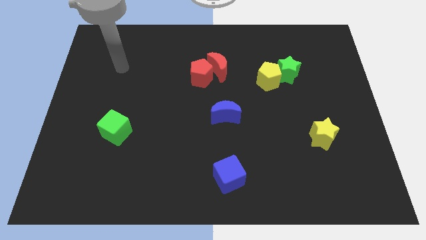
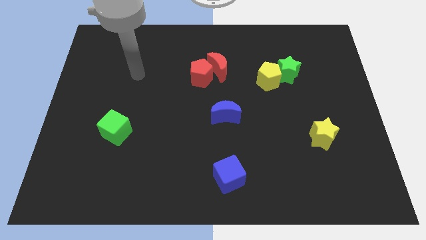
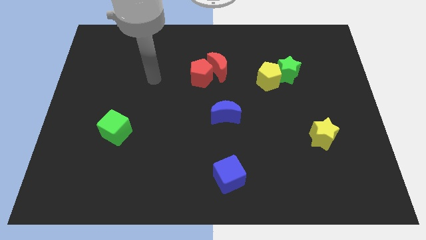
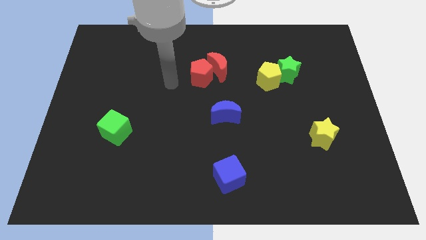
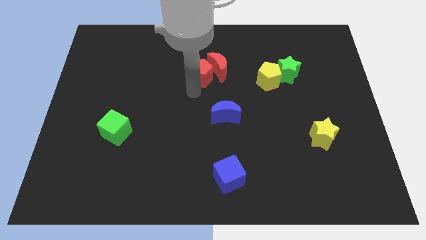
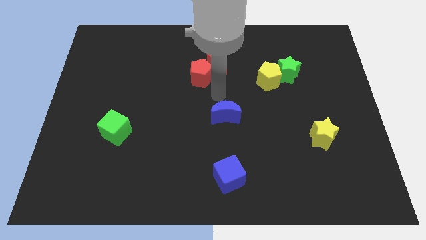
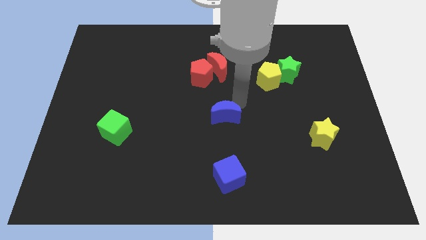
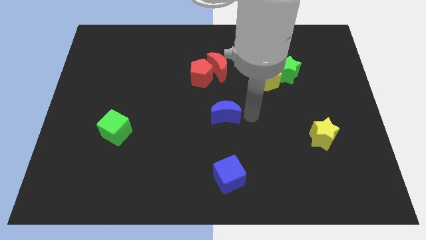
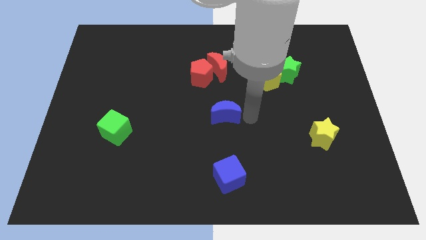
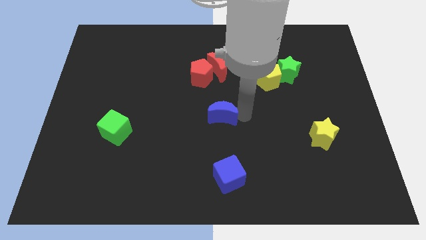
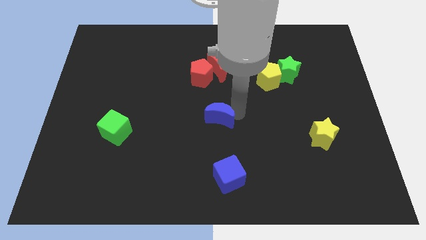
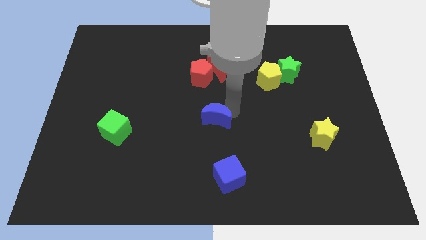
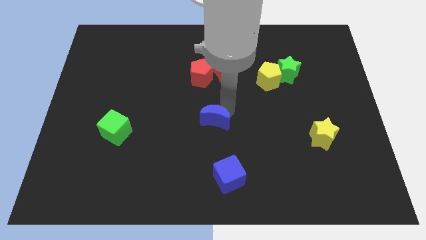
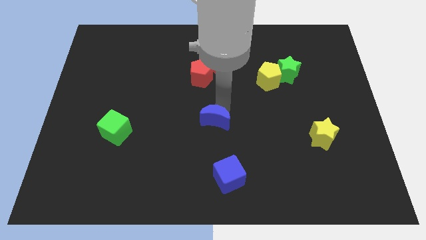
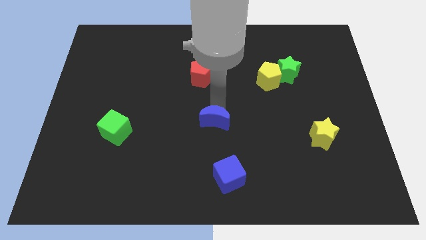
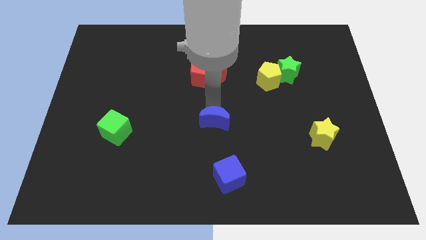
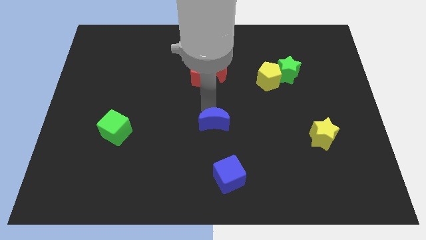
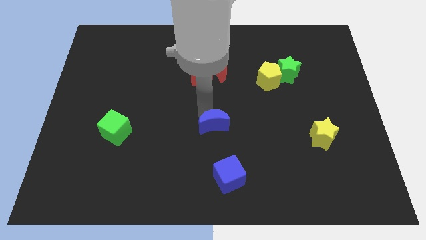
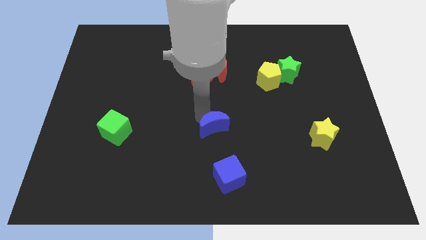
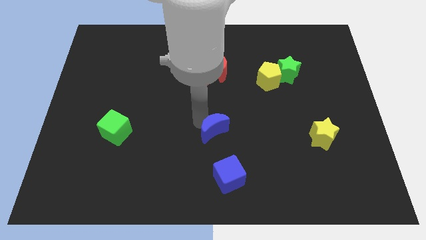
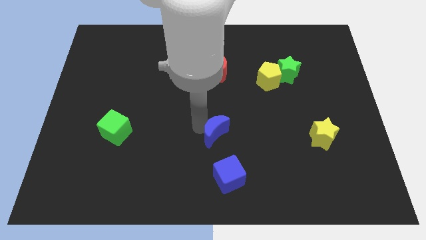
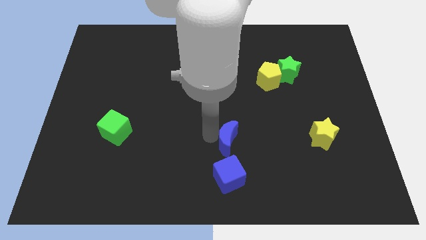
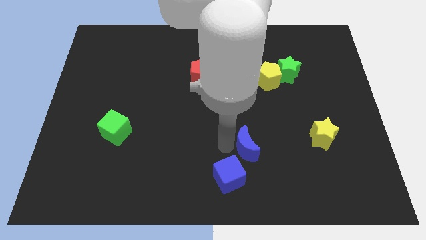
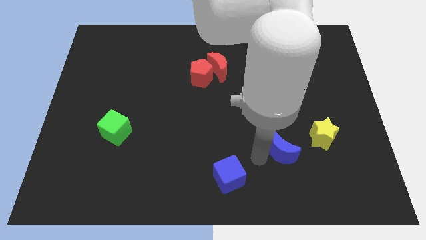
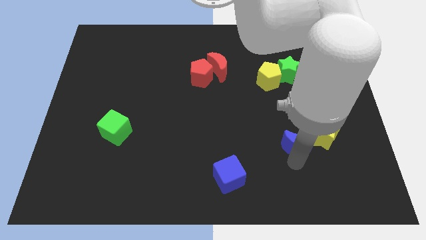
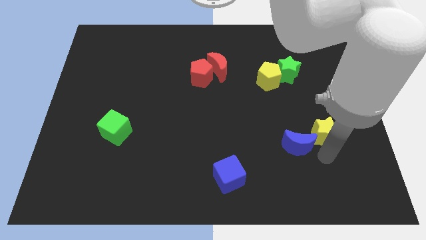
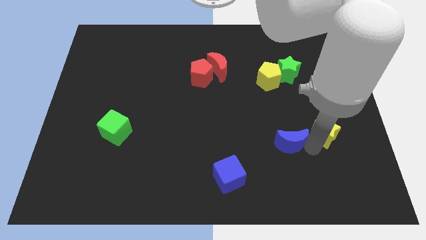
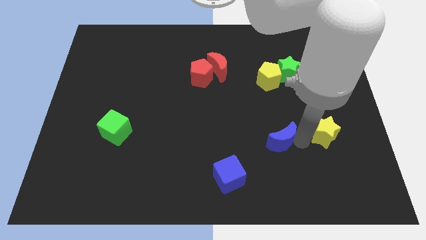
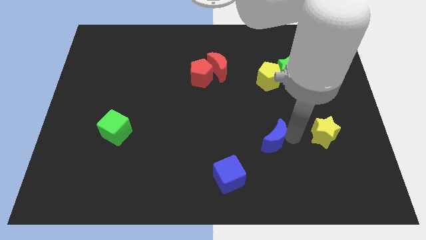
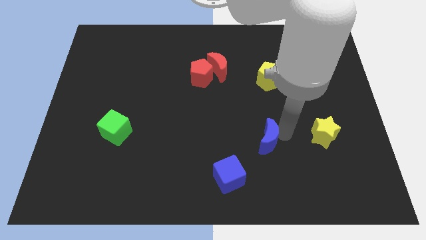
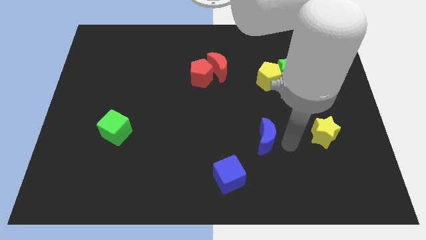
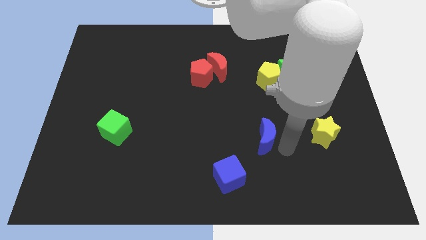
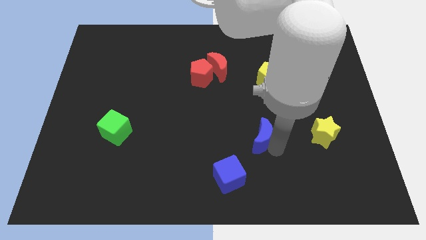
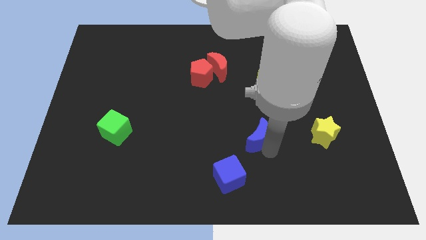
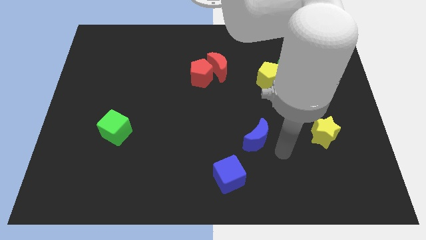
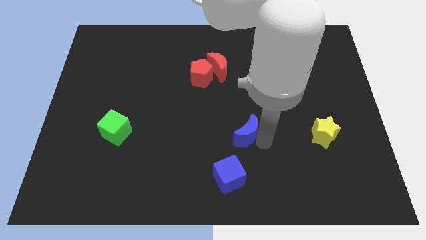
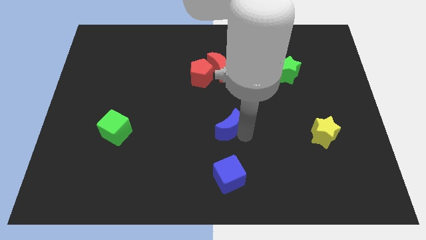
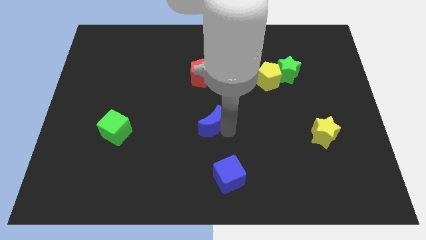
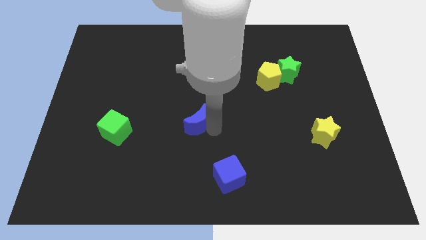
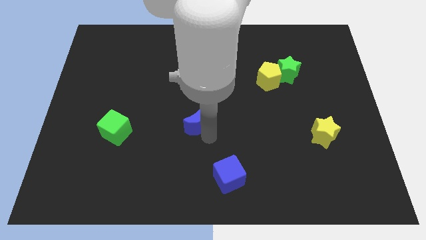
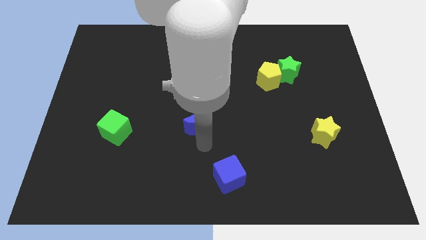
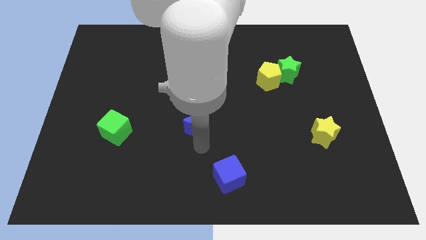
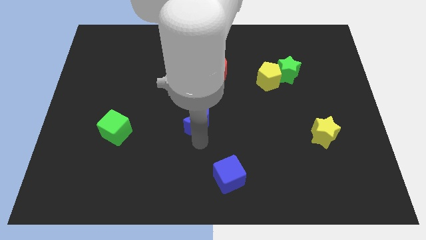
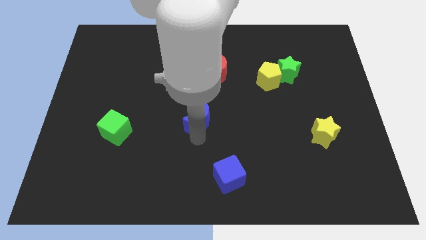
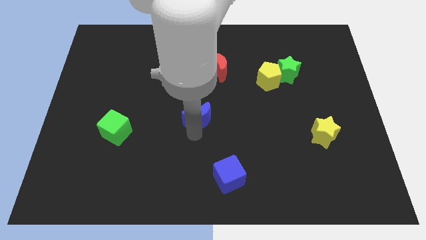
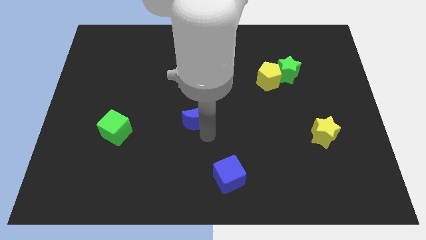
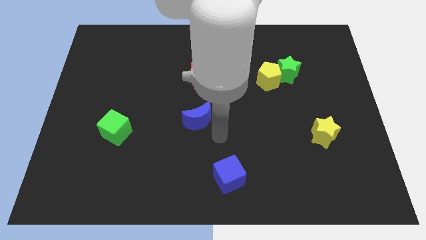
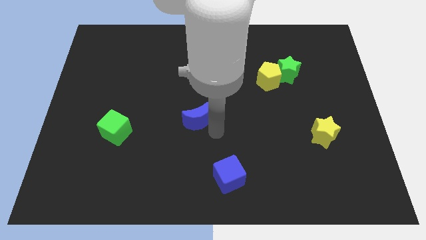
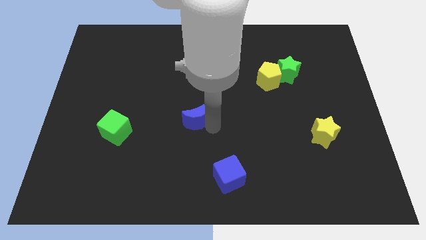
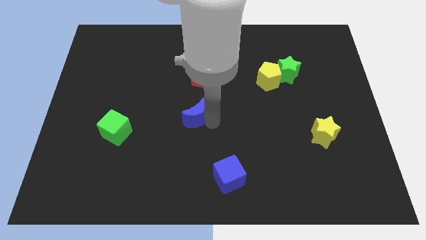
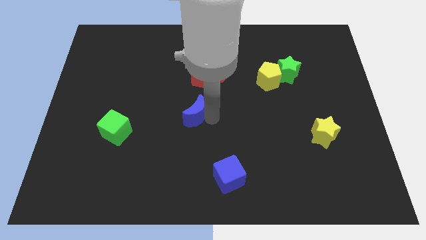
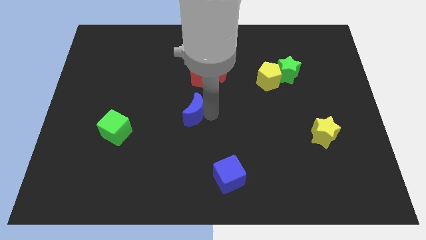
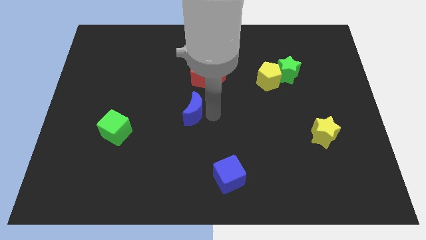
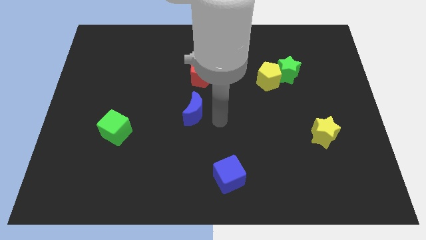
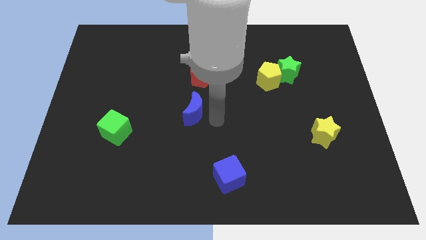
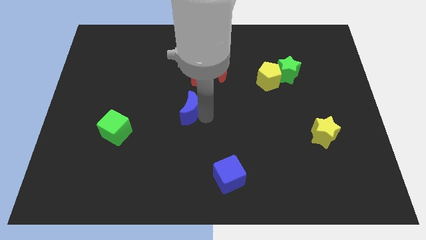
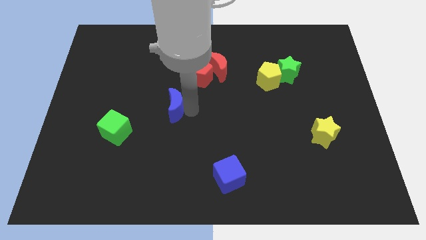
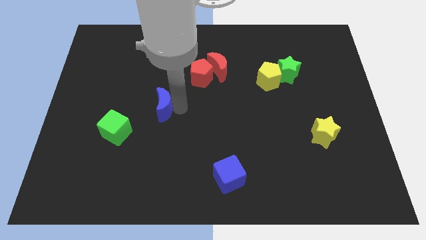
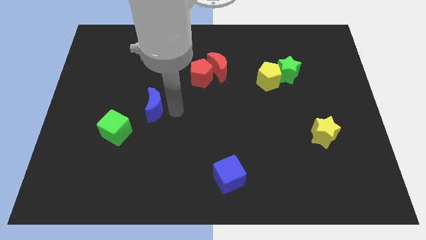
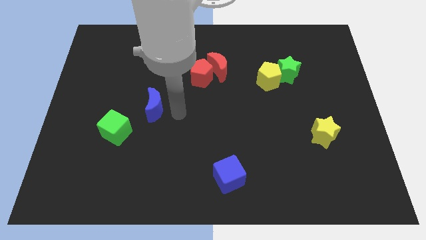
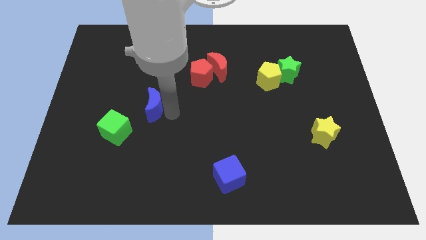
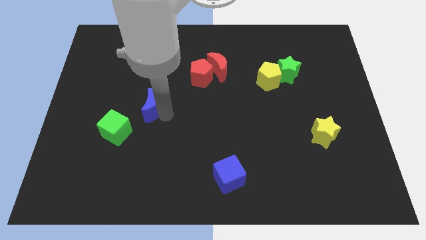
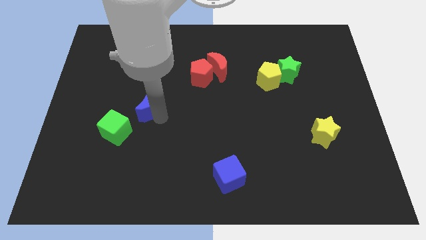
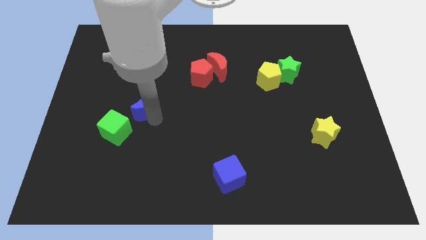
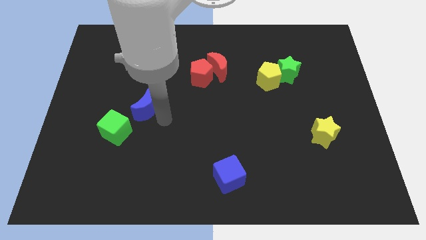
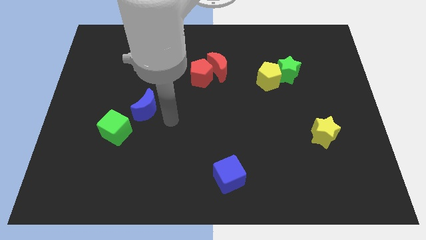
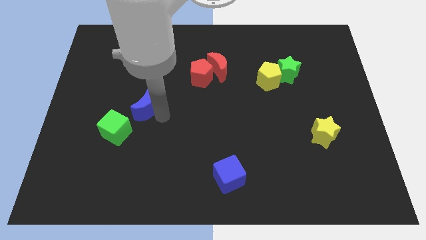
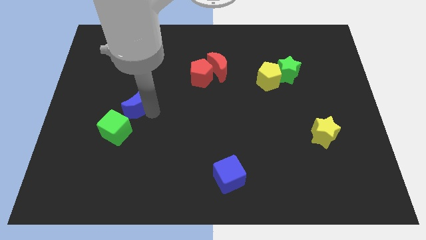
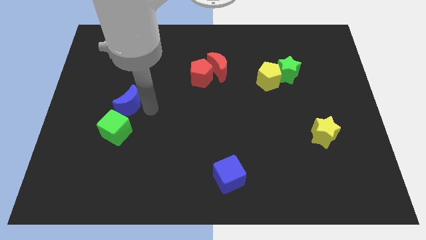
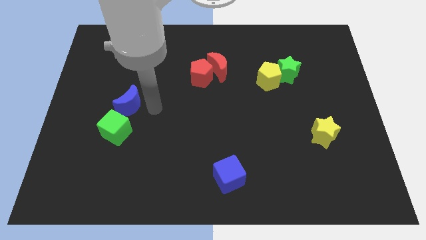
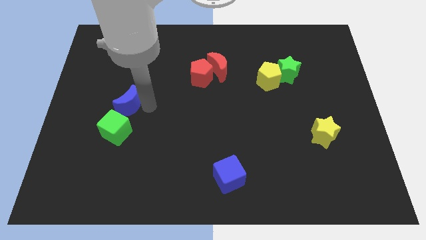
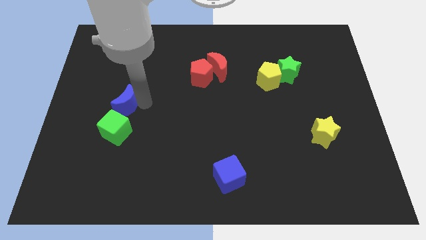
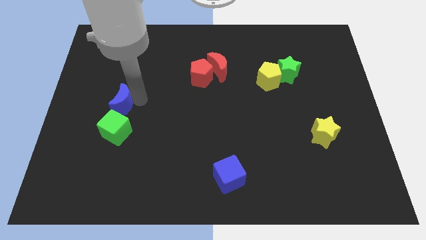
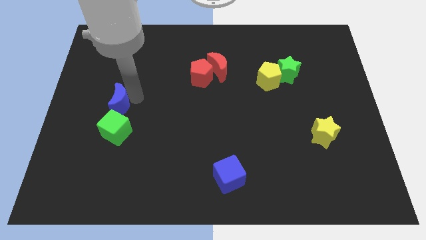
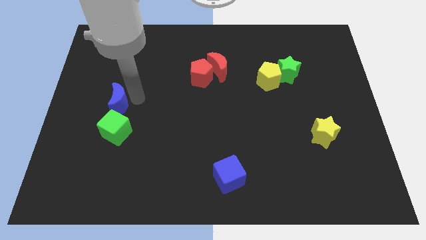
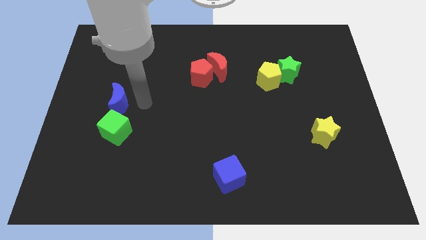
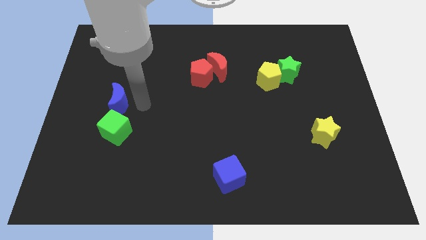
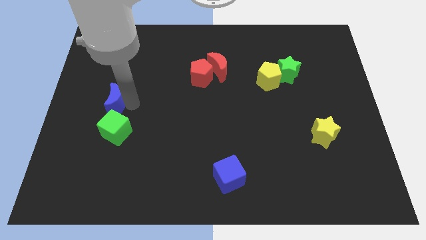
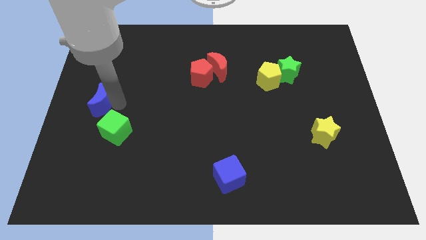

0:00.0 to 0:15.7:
put the blue moon to the left side of the board
